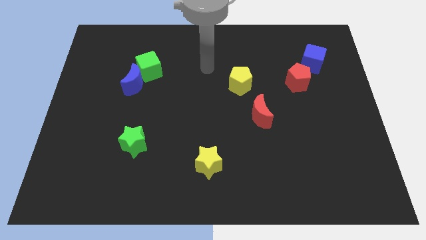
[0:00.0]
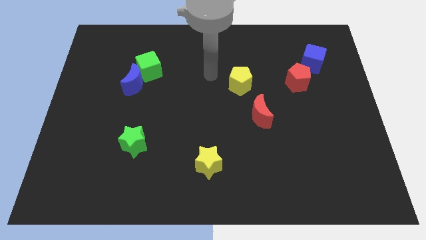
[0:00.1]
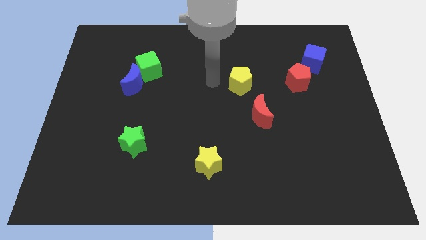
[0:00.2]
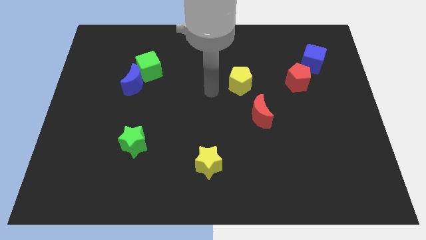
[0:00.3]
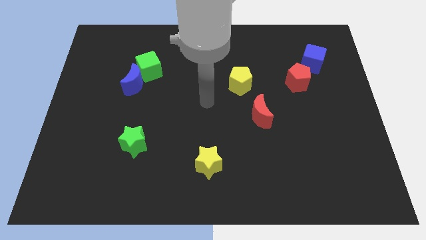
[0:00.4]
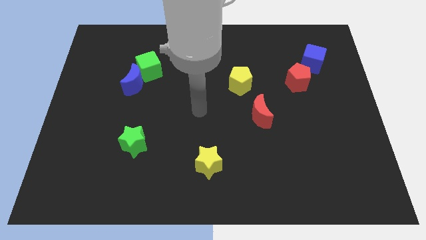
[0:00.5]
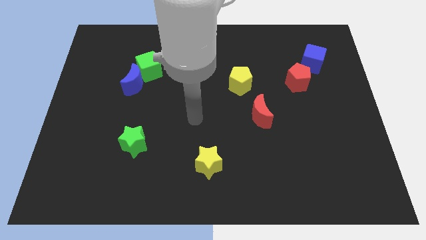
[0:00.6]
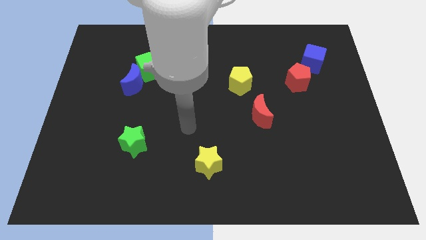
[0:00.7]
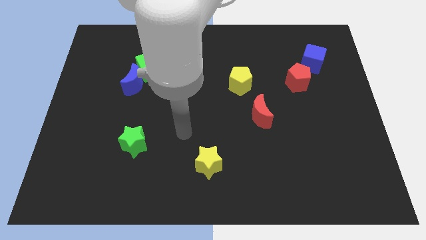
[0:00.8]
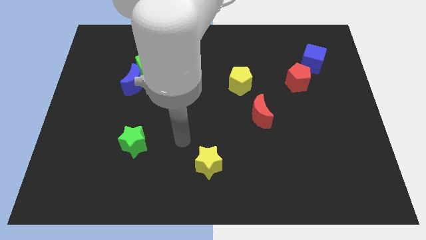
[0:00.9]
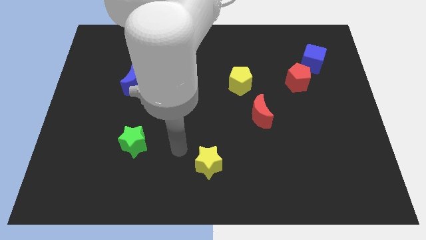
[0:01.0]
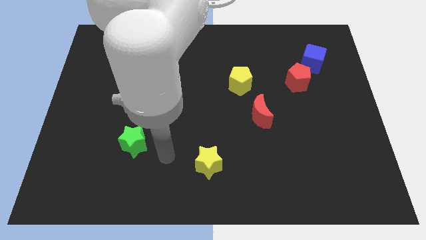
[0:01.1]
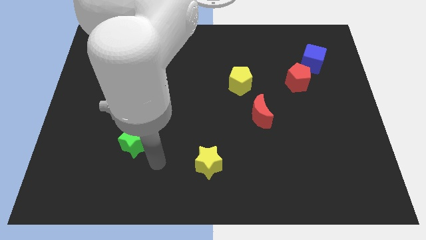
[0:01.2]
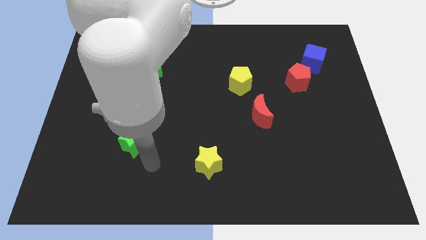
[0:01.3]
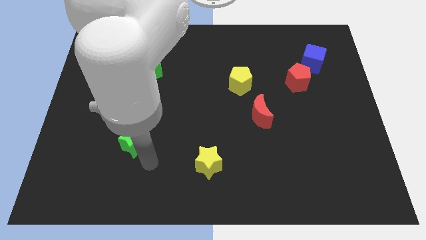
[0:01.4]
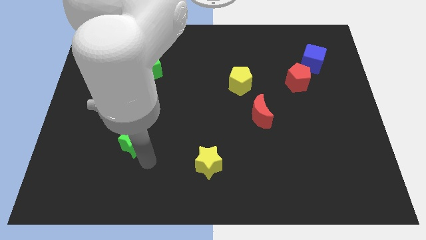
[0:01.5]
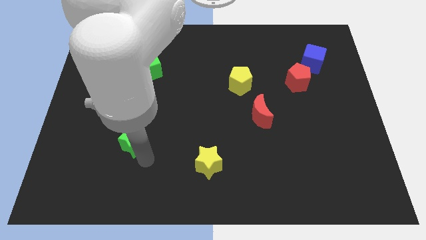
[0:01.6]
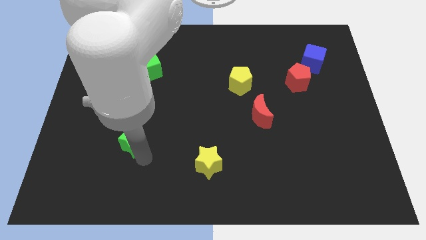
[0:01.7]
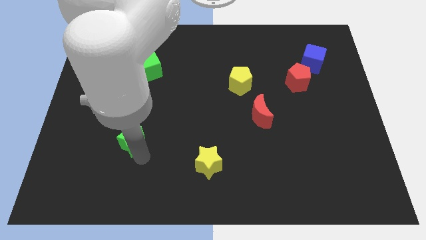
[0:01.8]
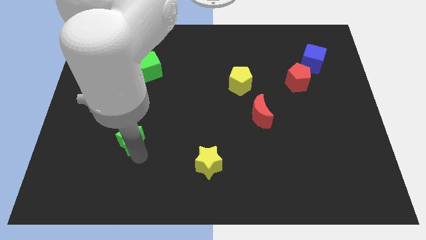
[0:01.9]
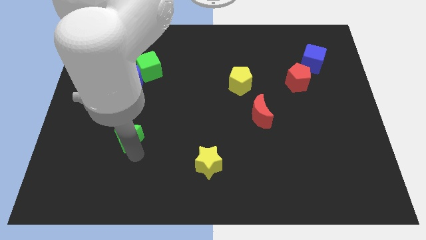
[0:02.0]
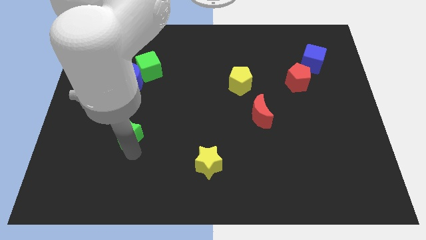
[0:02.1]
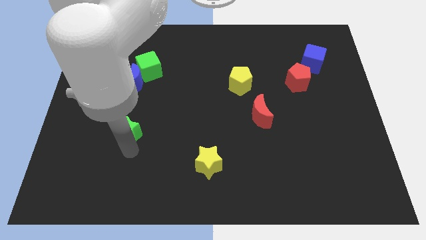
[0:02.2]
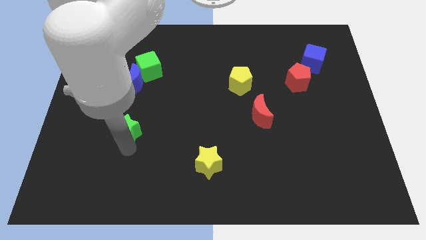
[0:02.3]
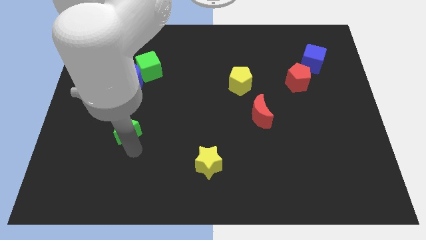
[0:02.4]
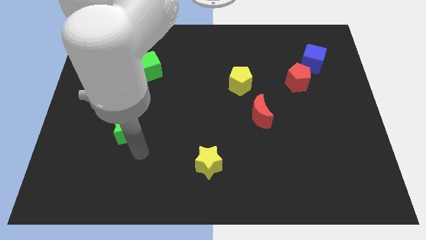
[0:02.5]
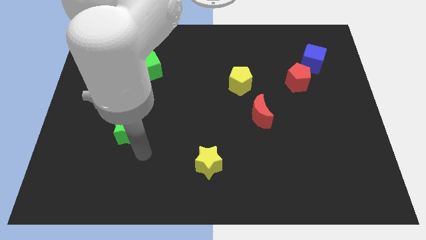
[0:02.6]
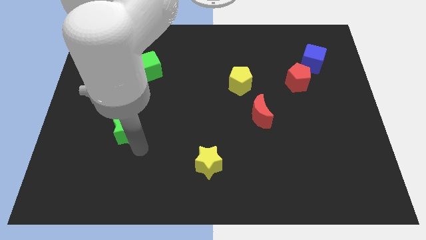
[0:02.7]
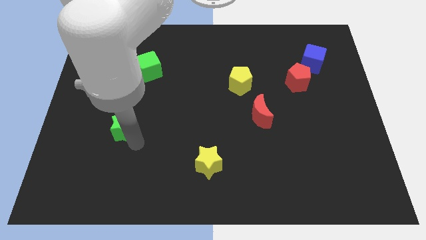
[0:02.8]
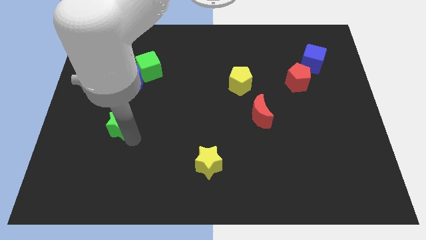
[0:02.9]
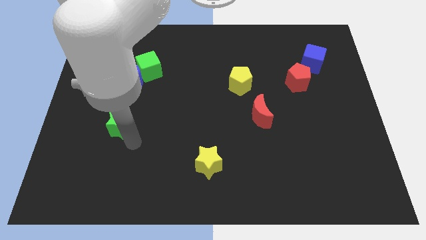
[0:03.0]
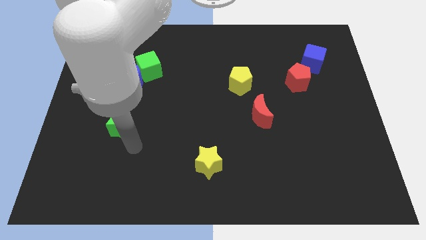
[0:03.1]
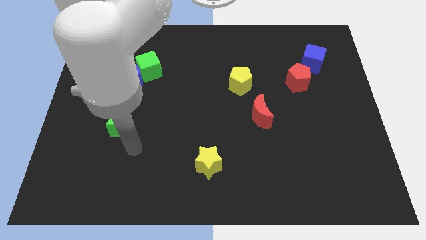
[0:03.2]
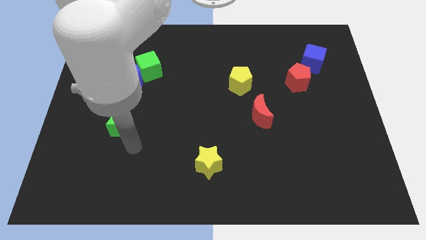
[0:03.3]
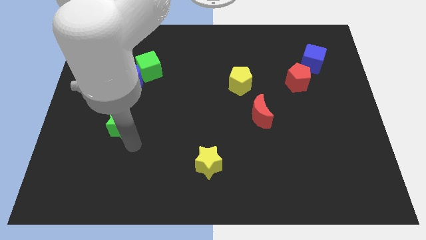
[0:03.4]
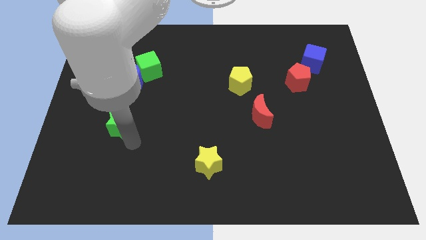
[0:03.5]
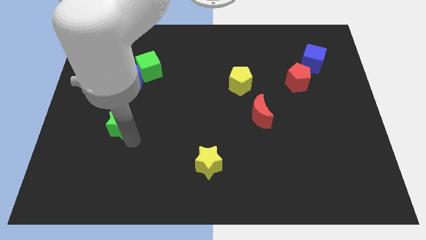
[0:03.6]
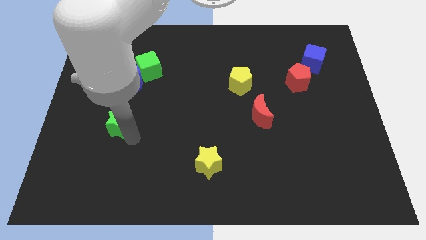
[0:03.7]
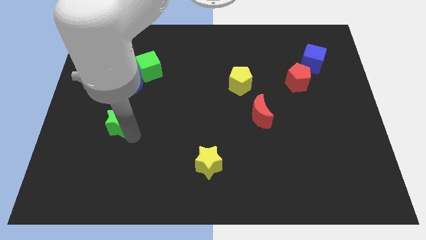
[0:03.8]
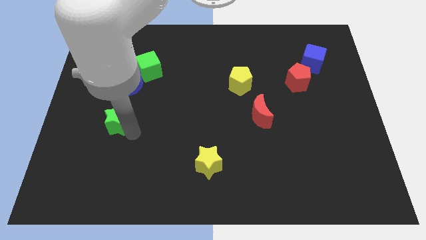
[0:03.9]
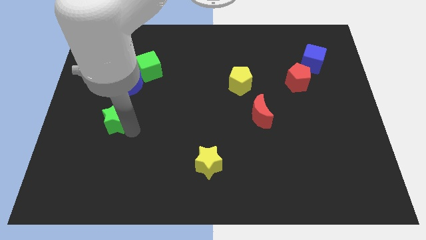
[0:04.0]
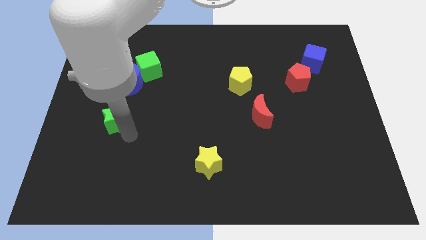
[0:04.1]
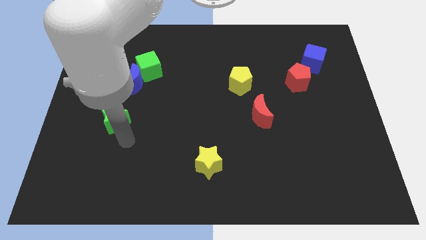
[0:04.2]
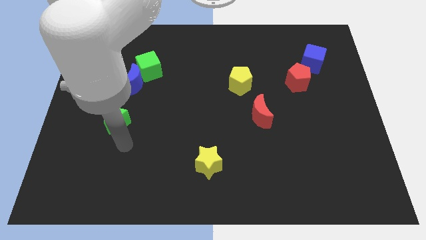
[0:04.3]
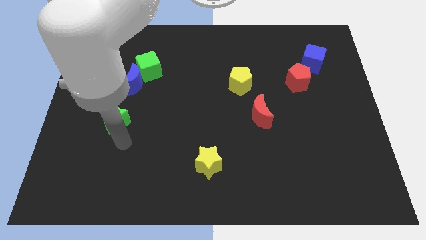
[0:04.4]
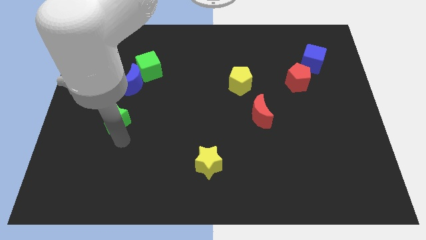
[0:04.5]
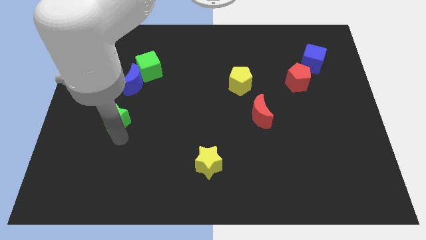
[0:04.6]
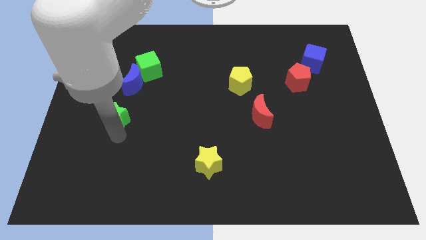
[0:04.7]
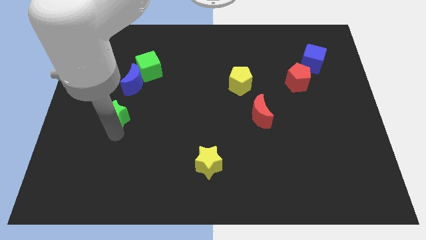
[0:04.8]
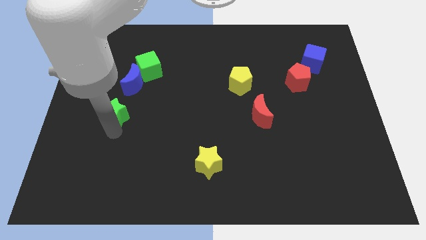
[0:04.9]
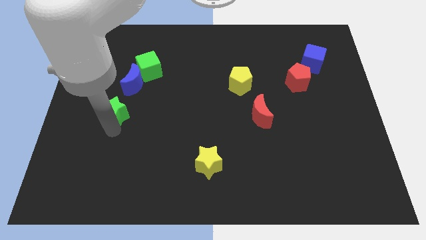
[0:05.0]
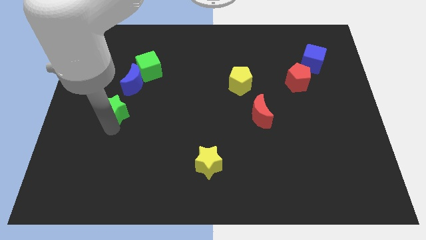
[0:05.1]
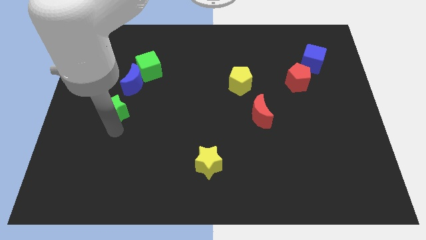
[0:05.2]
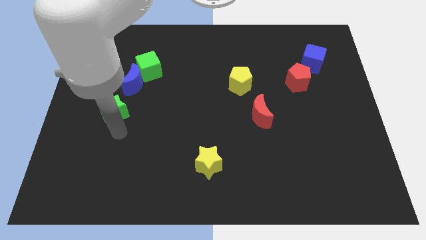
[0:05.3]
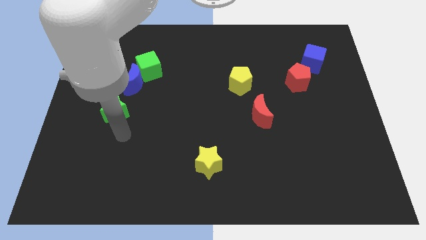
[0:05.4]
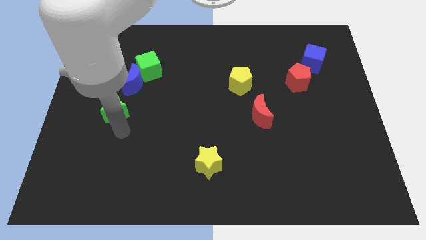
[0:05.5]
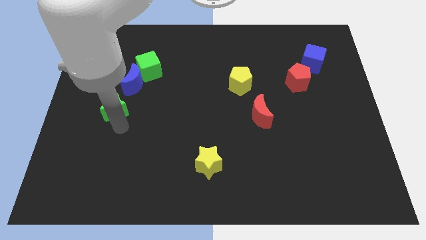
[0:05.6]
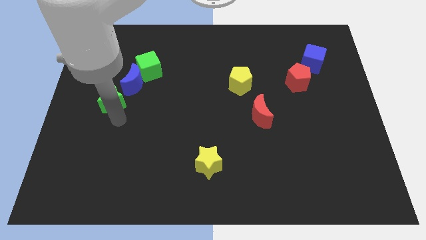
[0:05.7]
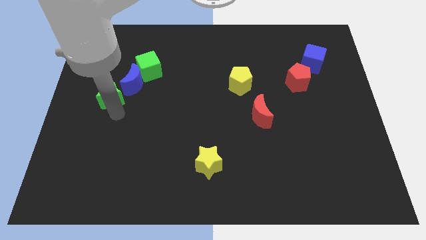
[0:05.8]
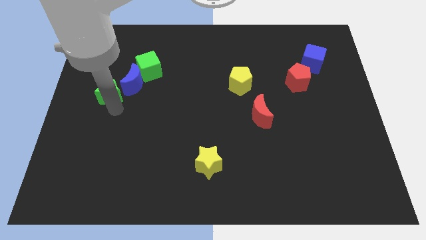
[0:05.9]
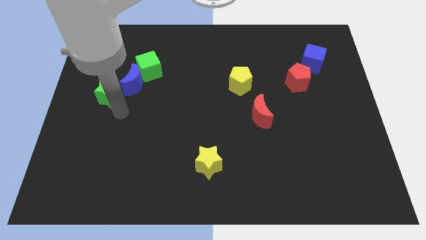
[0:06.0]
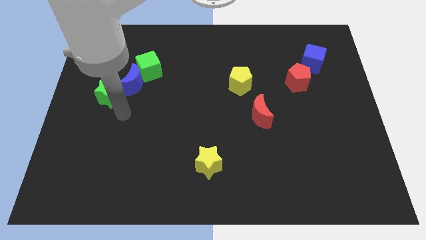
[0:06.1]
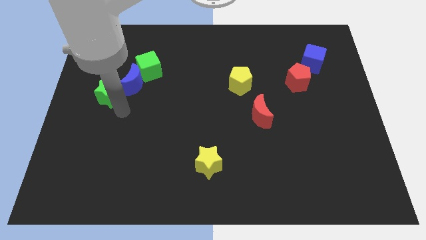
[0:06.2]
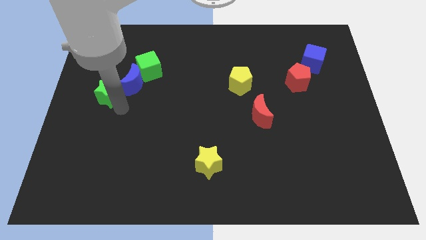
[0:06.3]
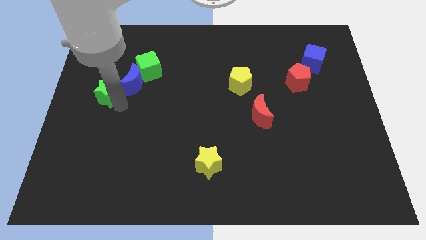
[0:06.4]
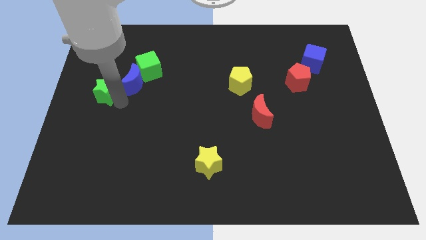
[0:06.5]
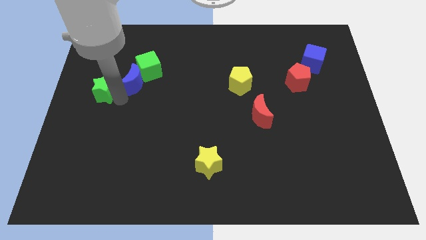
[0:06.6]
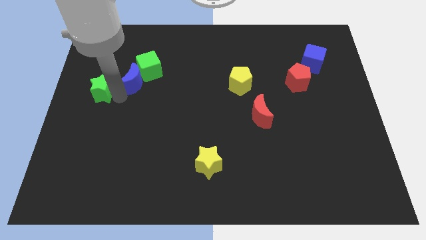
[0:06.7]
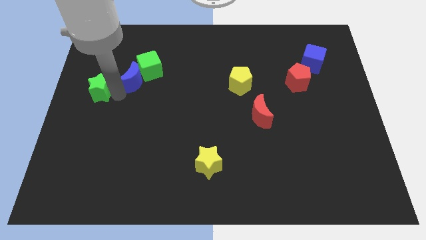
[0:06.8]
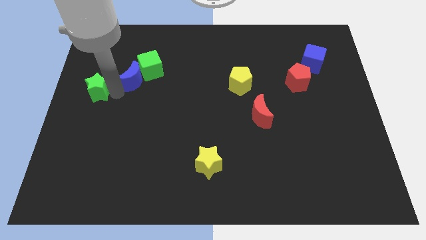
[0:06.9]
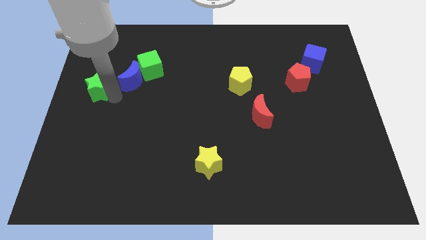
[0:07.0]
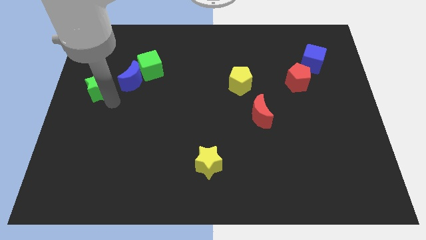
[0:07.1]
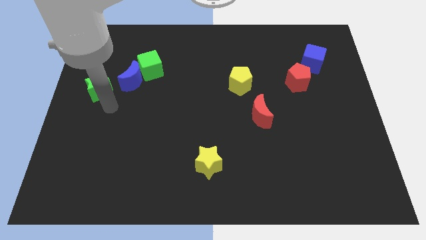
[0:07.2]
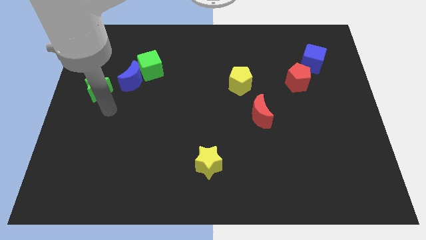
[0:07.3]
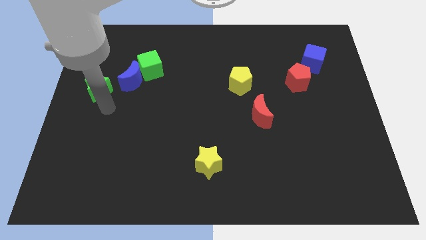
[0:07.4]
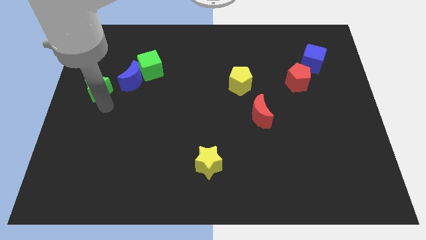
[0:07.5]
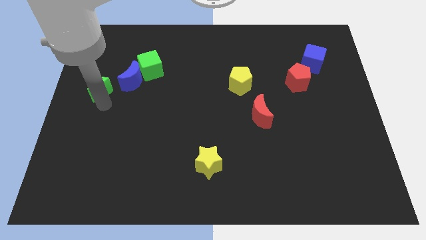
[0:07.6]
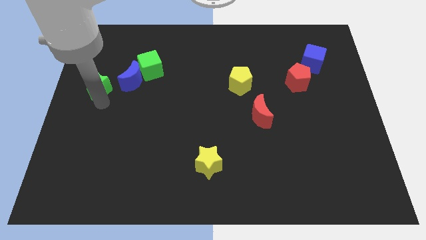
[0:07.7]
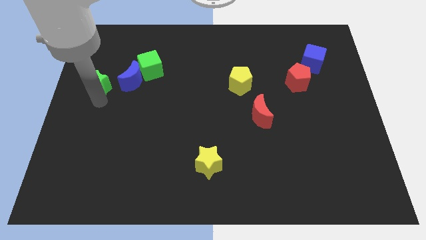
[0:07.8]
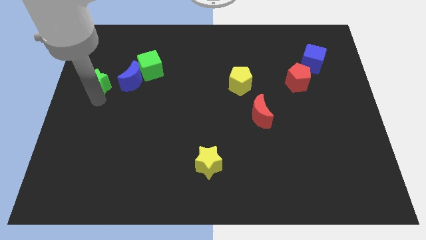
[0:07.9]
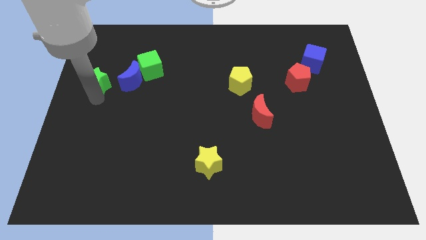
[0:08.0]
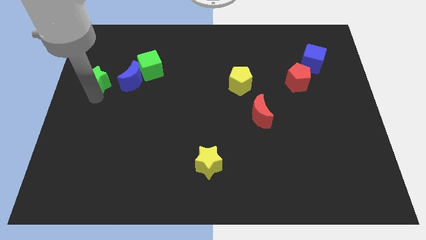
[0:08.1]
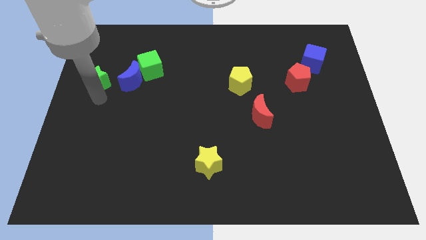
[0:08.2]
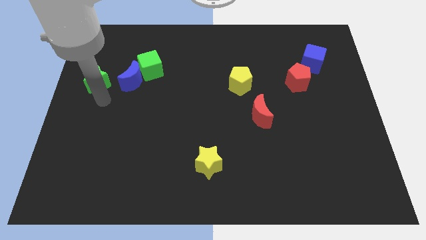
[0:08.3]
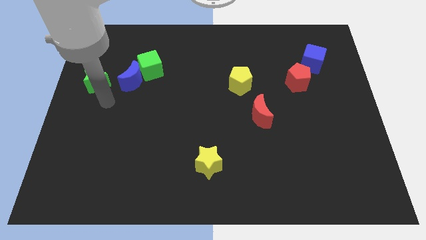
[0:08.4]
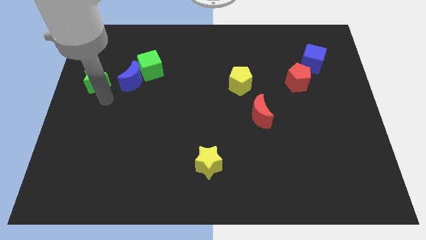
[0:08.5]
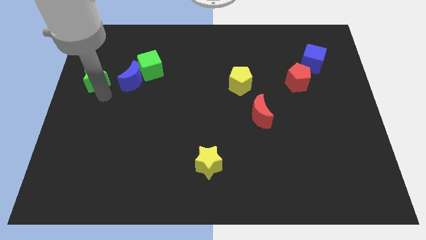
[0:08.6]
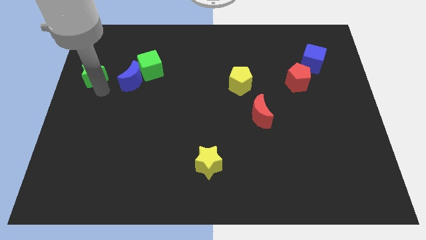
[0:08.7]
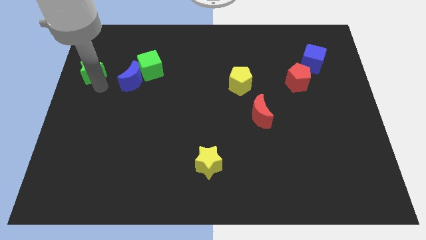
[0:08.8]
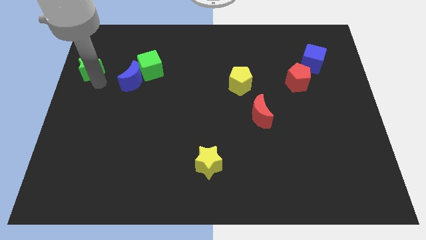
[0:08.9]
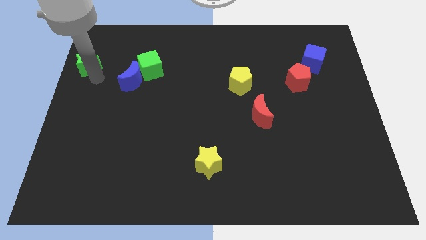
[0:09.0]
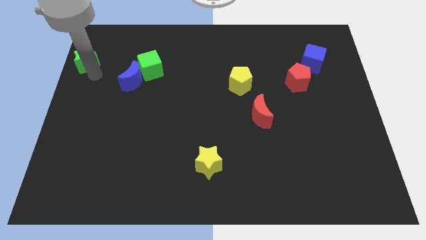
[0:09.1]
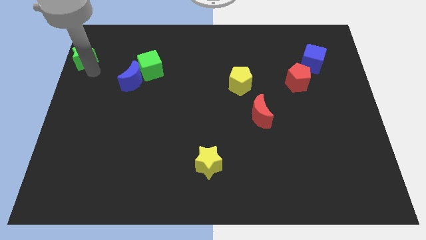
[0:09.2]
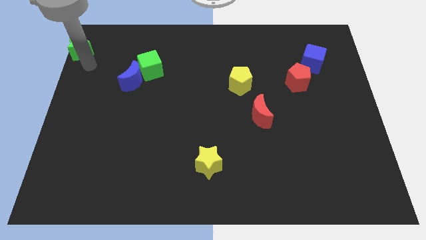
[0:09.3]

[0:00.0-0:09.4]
slide the green star to the top left corner
